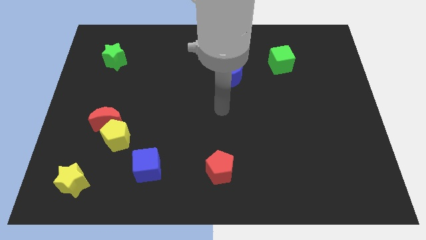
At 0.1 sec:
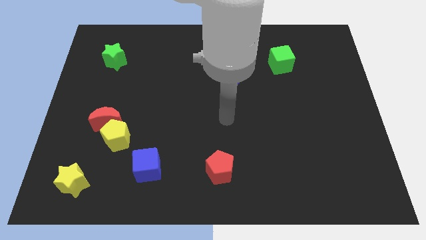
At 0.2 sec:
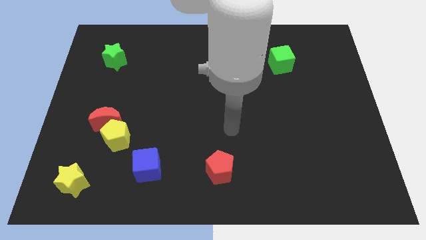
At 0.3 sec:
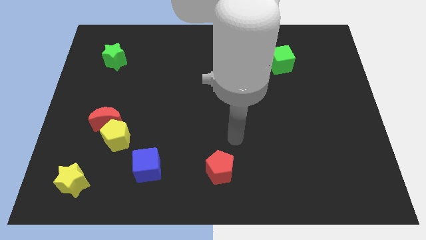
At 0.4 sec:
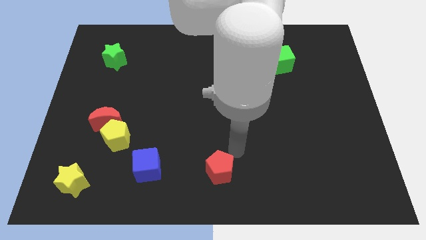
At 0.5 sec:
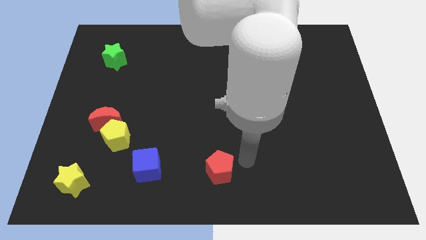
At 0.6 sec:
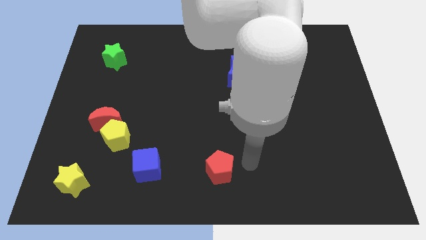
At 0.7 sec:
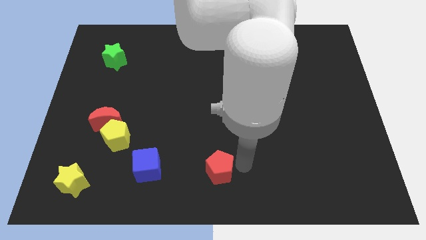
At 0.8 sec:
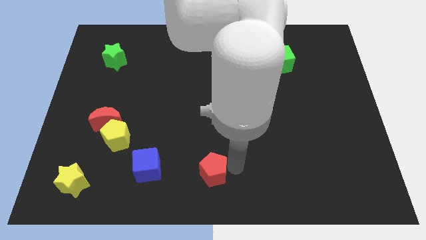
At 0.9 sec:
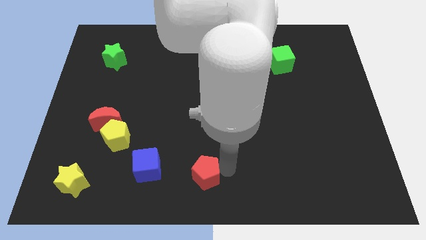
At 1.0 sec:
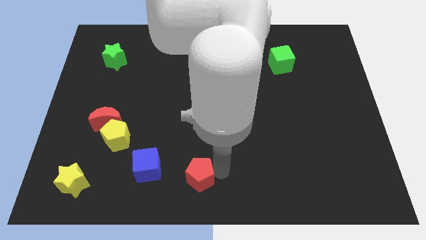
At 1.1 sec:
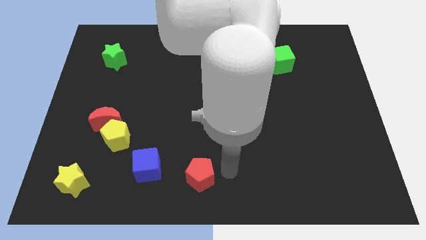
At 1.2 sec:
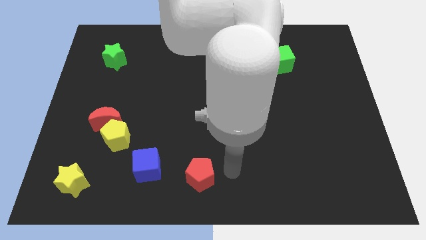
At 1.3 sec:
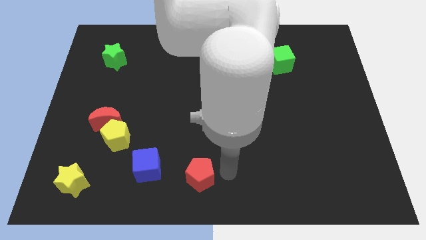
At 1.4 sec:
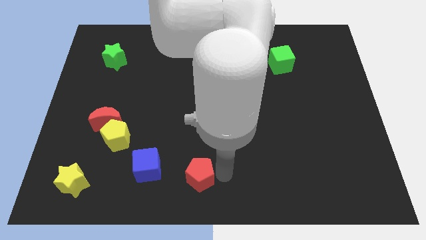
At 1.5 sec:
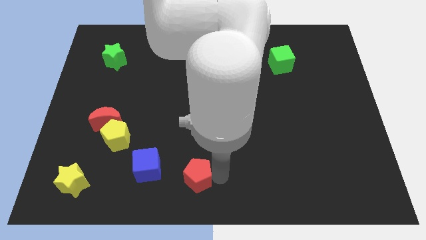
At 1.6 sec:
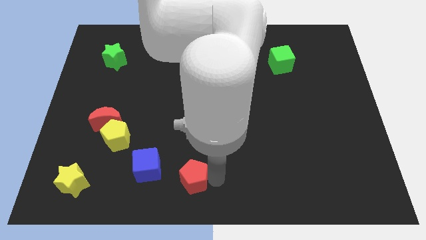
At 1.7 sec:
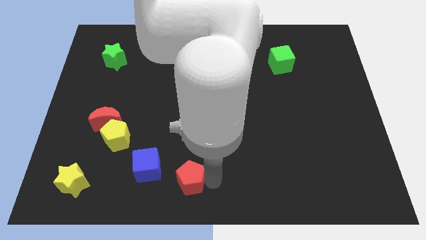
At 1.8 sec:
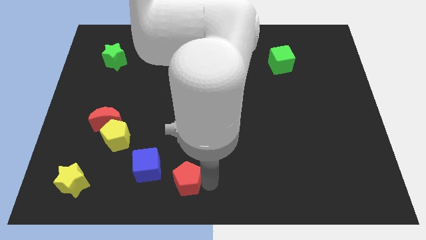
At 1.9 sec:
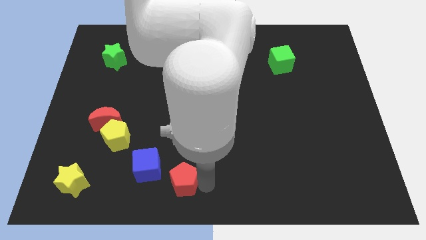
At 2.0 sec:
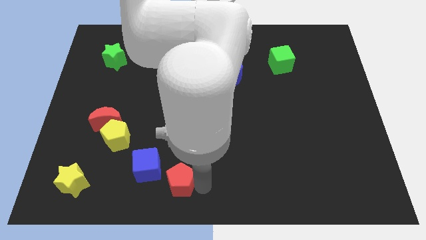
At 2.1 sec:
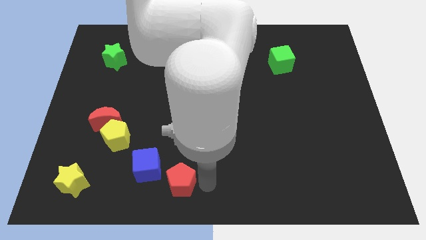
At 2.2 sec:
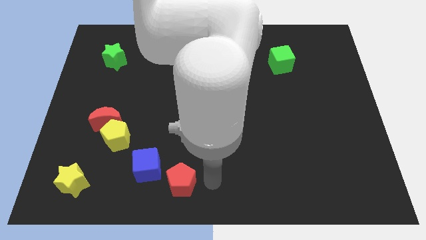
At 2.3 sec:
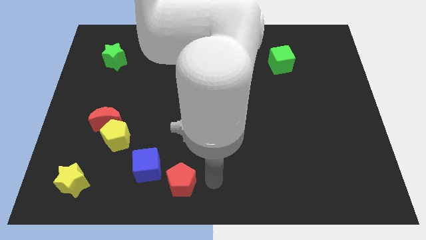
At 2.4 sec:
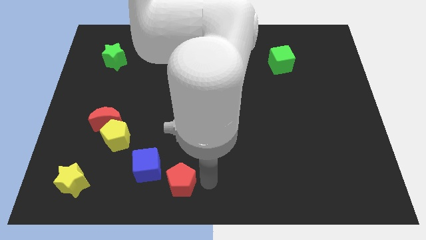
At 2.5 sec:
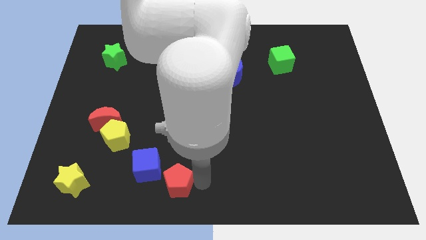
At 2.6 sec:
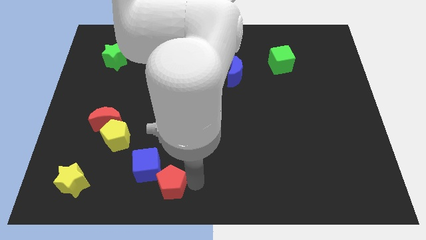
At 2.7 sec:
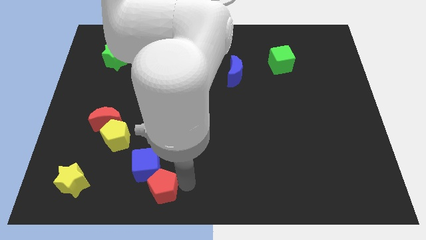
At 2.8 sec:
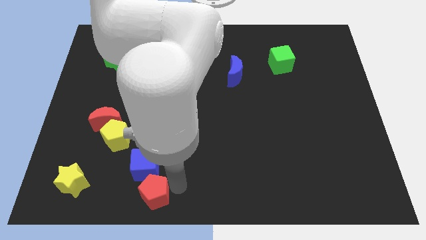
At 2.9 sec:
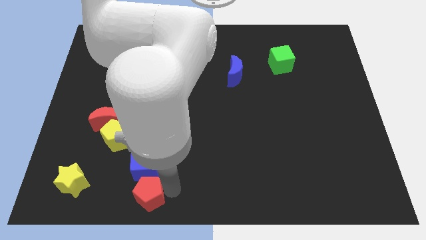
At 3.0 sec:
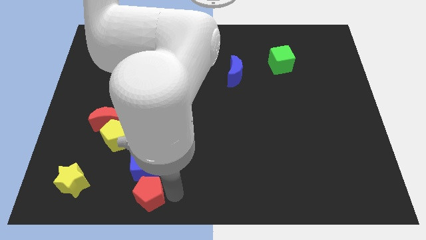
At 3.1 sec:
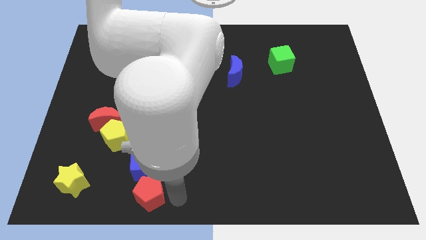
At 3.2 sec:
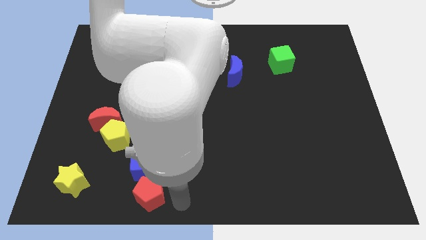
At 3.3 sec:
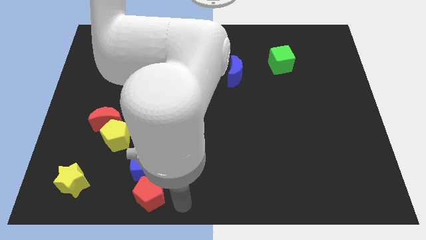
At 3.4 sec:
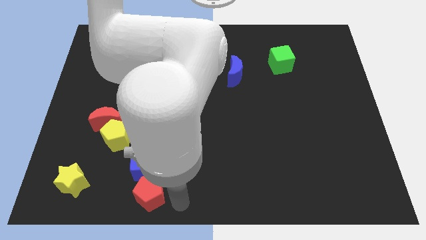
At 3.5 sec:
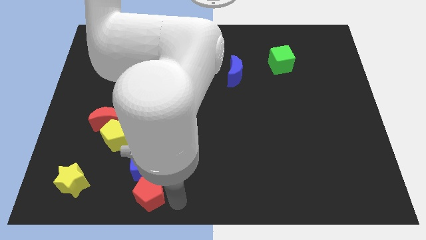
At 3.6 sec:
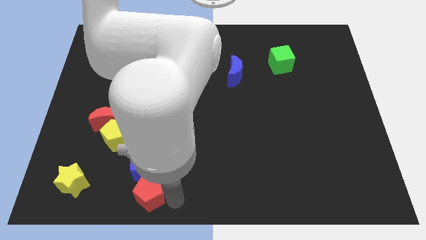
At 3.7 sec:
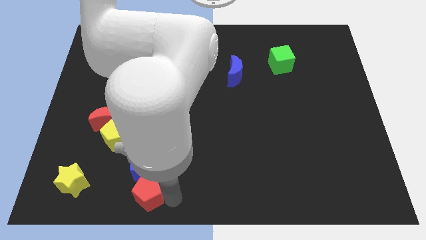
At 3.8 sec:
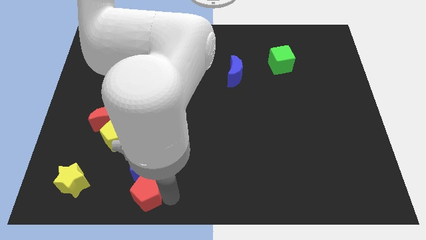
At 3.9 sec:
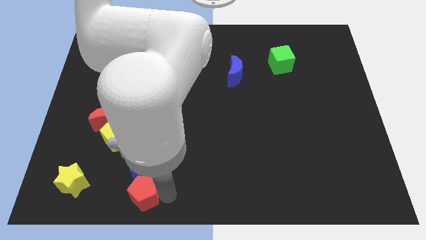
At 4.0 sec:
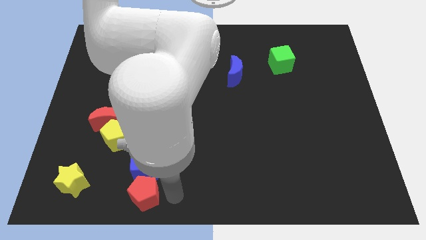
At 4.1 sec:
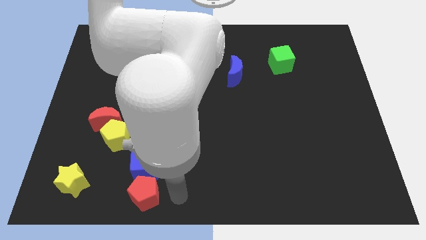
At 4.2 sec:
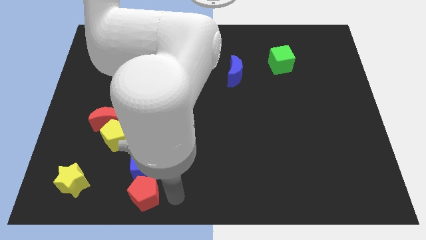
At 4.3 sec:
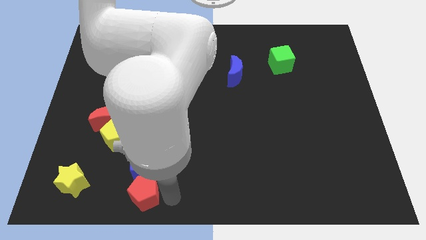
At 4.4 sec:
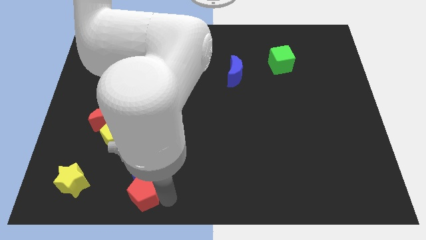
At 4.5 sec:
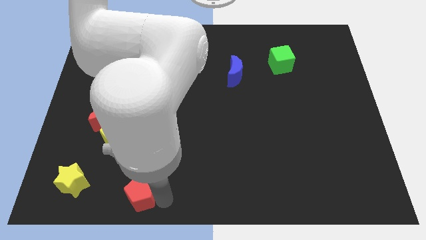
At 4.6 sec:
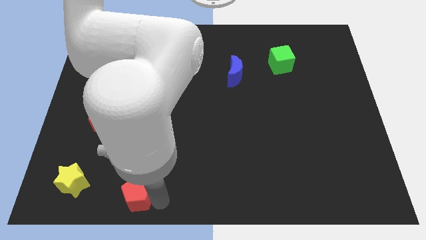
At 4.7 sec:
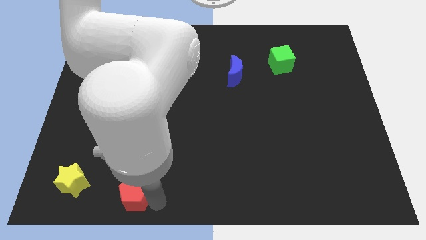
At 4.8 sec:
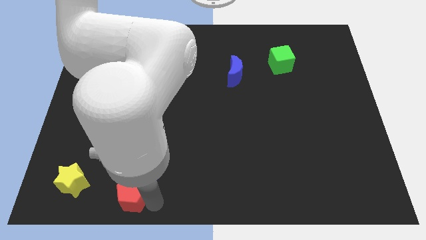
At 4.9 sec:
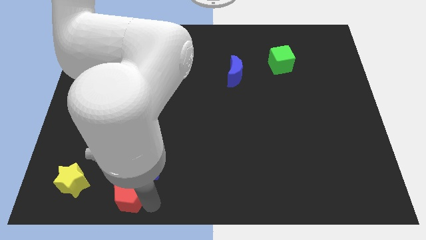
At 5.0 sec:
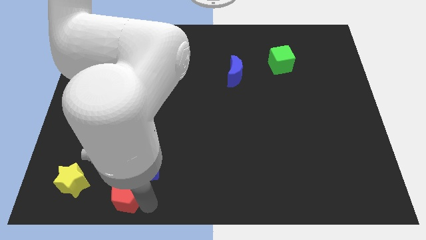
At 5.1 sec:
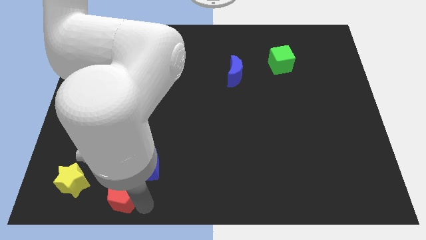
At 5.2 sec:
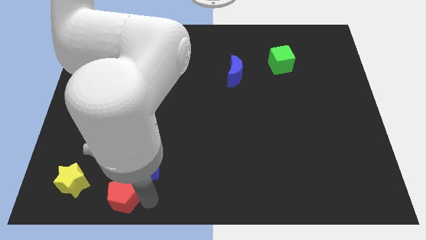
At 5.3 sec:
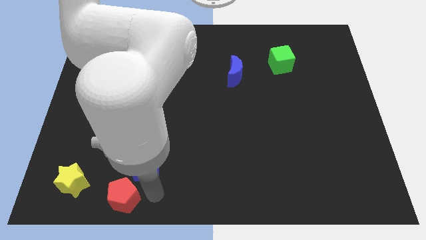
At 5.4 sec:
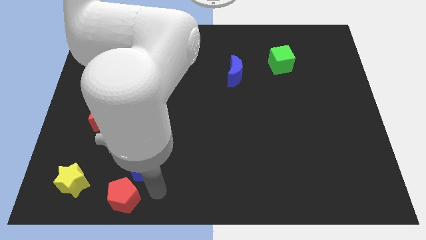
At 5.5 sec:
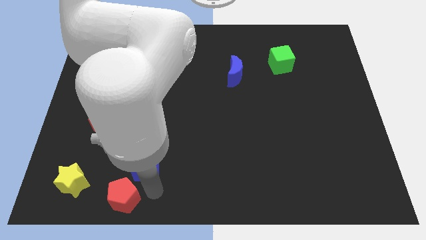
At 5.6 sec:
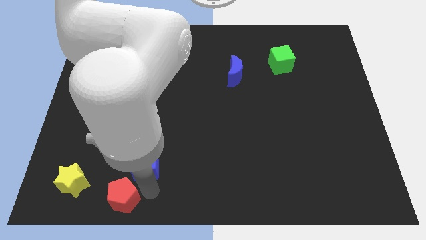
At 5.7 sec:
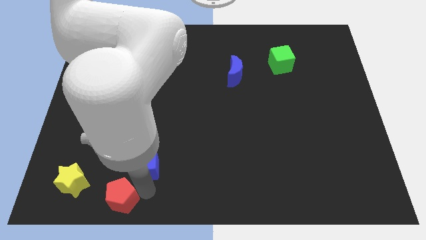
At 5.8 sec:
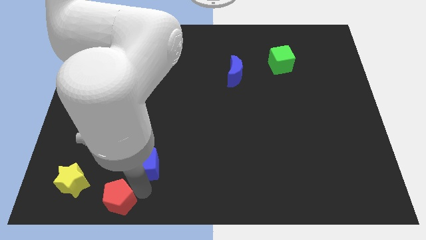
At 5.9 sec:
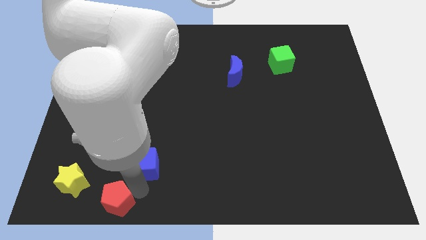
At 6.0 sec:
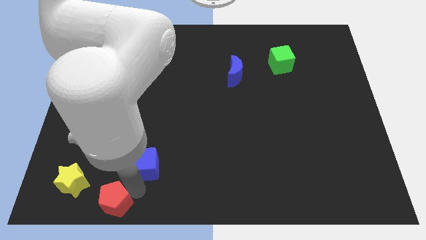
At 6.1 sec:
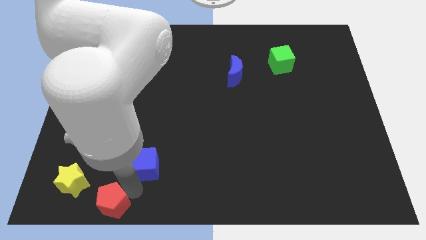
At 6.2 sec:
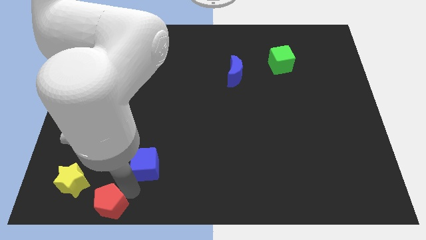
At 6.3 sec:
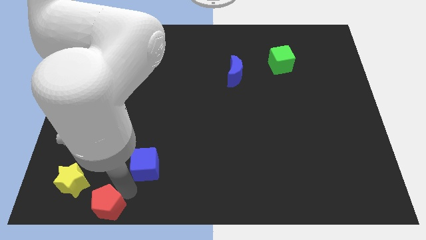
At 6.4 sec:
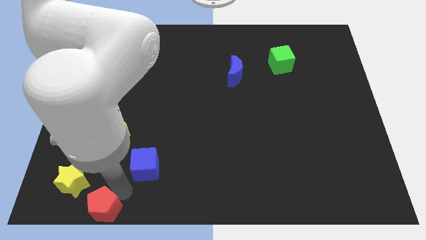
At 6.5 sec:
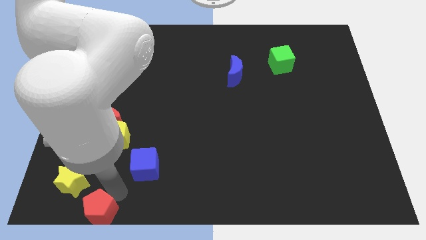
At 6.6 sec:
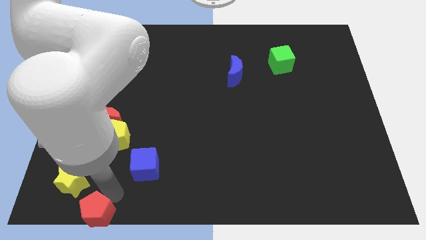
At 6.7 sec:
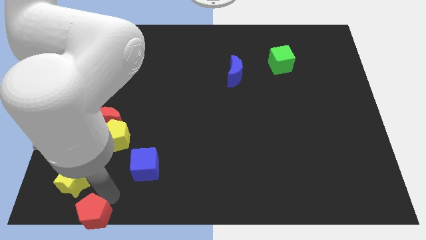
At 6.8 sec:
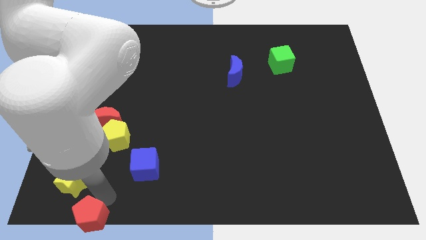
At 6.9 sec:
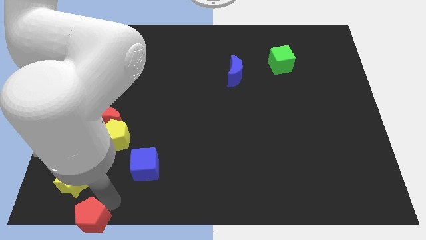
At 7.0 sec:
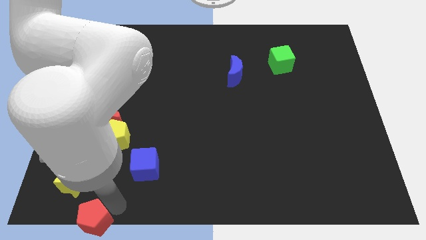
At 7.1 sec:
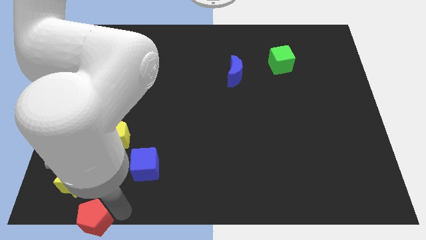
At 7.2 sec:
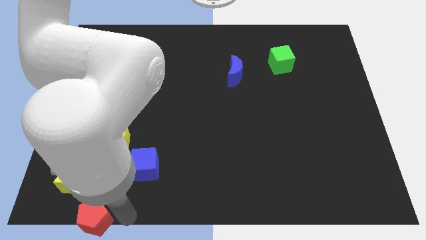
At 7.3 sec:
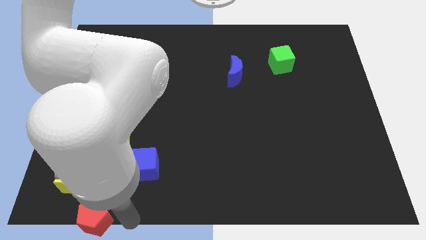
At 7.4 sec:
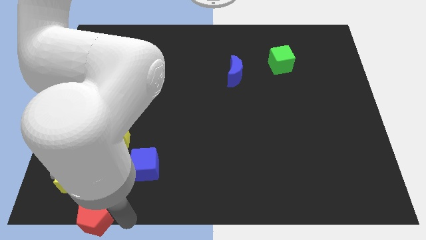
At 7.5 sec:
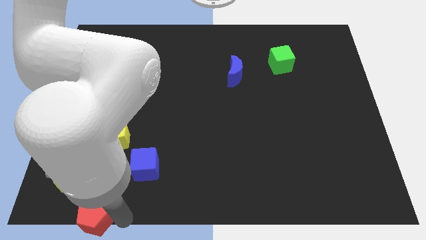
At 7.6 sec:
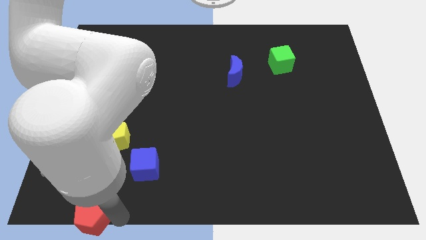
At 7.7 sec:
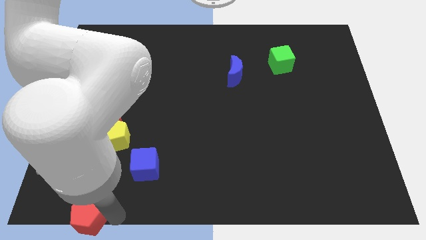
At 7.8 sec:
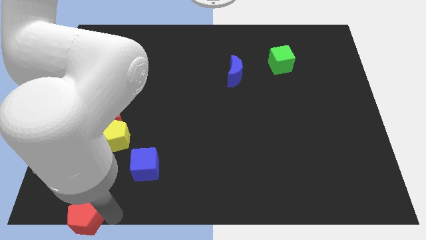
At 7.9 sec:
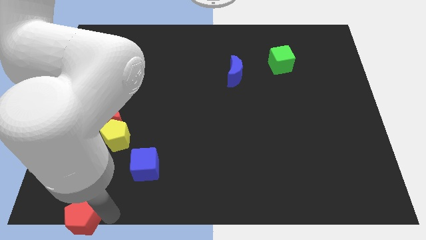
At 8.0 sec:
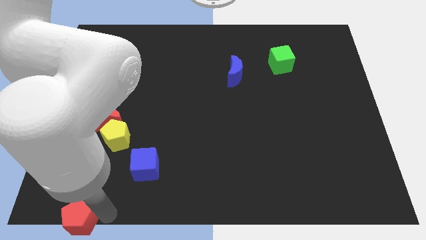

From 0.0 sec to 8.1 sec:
push the red pentagon to the bottom left of the board
